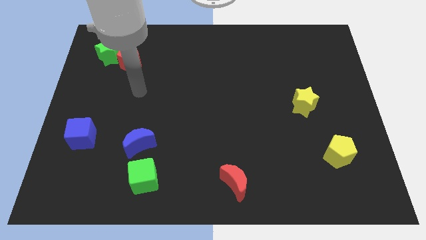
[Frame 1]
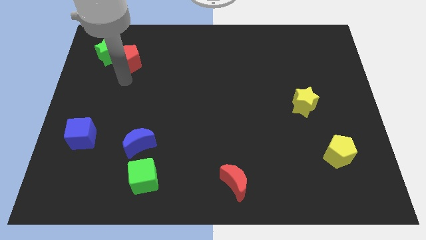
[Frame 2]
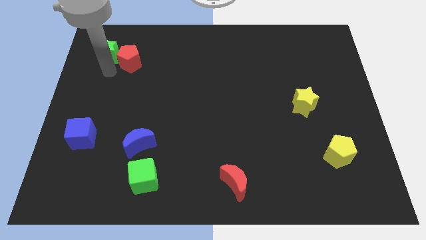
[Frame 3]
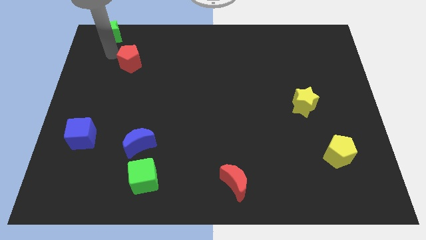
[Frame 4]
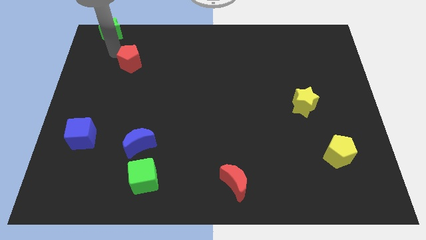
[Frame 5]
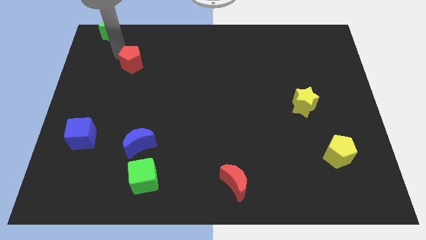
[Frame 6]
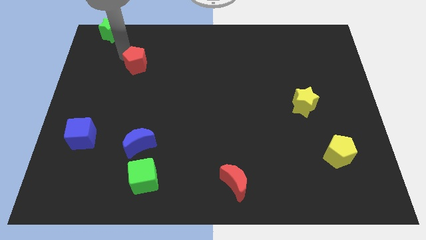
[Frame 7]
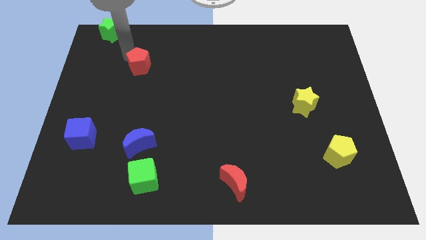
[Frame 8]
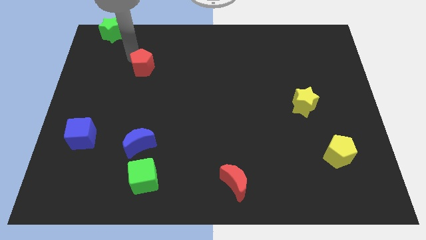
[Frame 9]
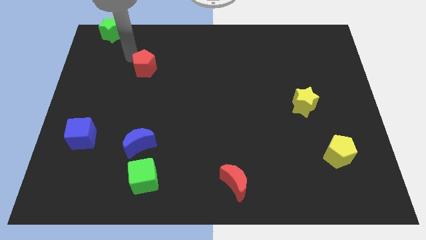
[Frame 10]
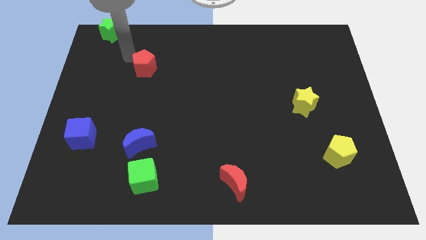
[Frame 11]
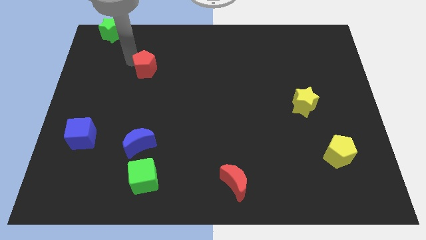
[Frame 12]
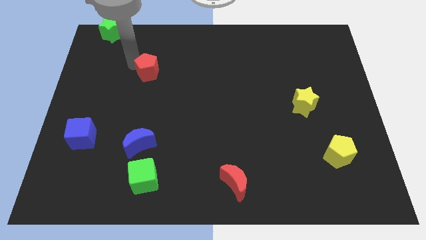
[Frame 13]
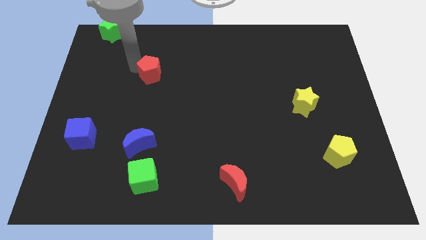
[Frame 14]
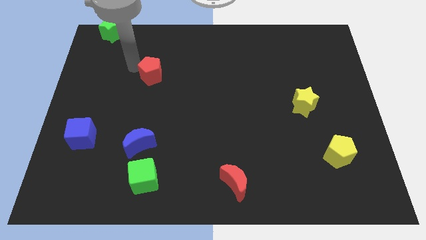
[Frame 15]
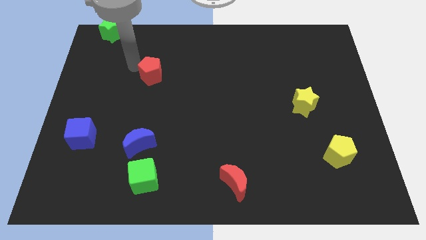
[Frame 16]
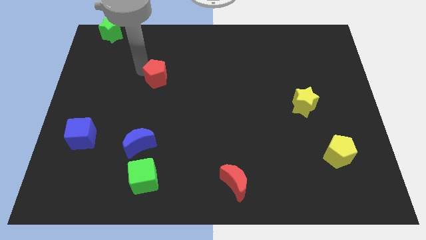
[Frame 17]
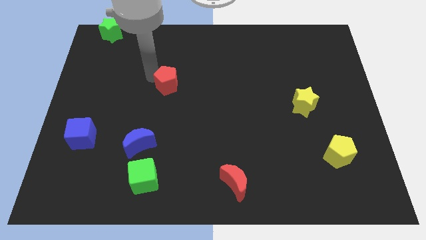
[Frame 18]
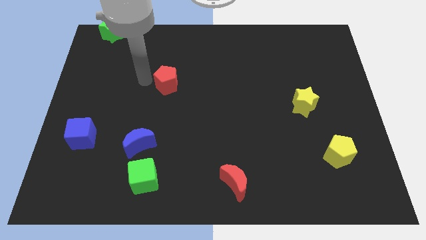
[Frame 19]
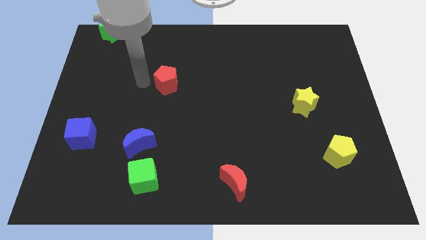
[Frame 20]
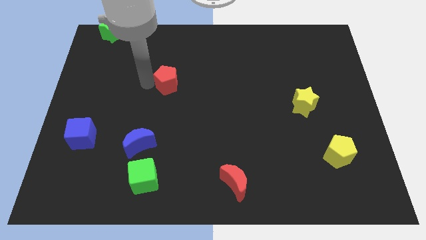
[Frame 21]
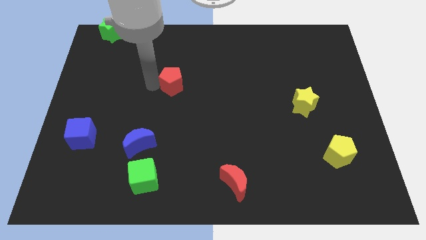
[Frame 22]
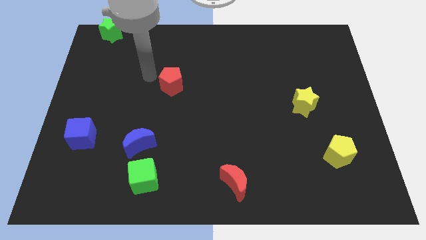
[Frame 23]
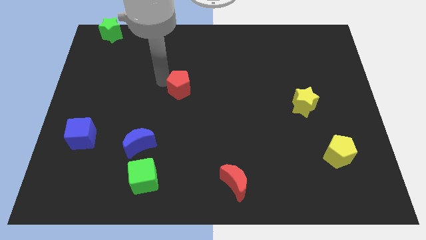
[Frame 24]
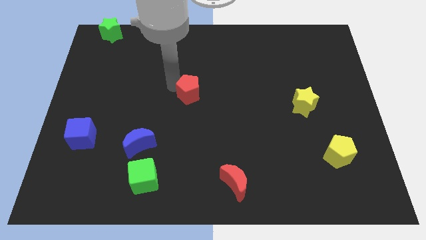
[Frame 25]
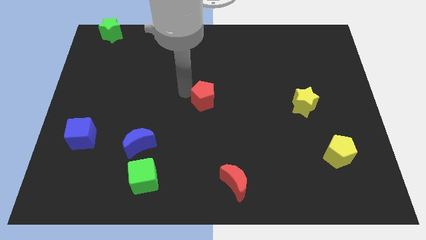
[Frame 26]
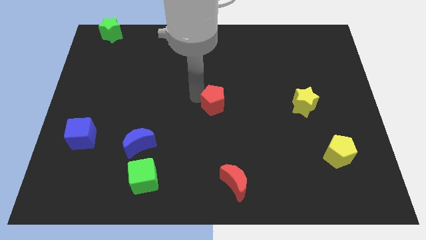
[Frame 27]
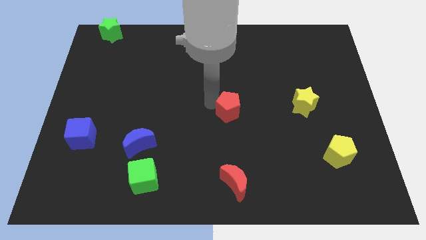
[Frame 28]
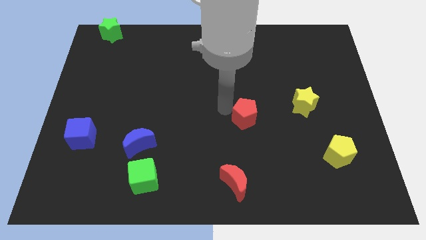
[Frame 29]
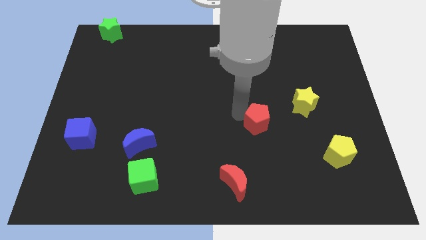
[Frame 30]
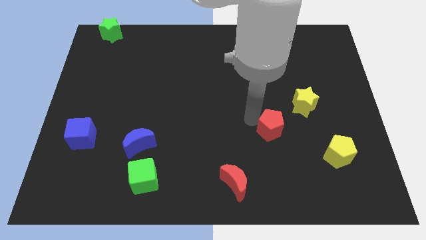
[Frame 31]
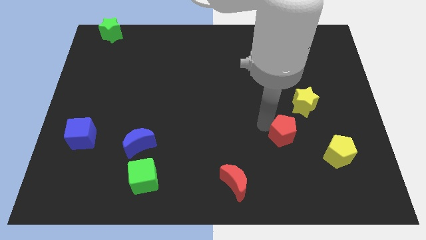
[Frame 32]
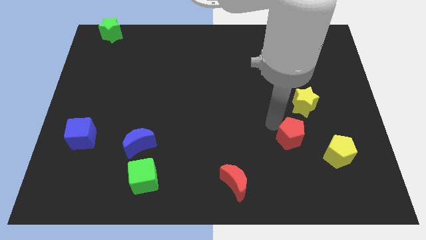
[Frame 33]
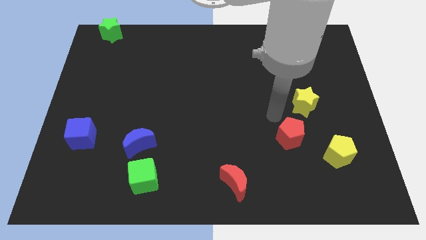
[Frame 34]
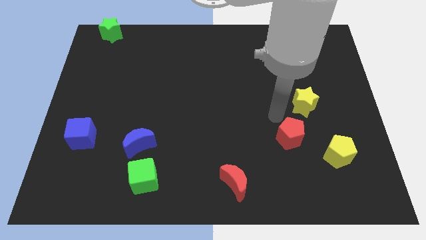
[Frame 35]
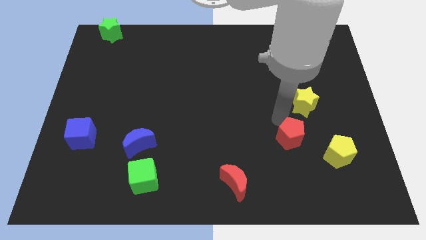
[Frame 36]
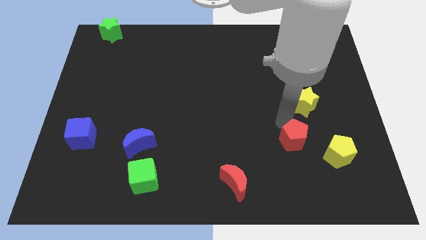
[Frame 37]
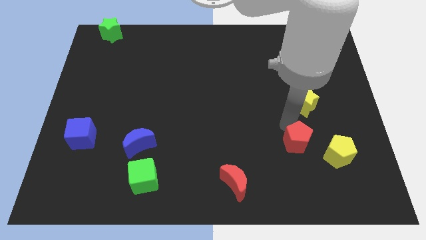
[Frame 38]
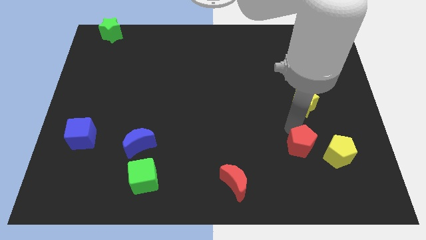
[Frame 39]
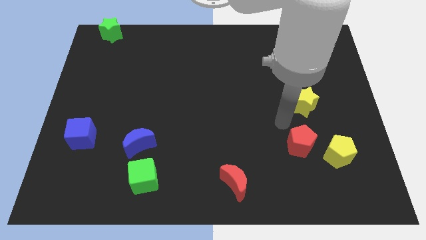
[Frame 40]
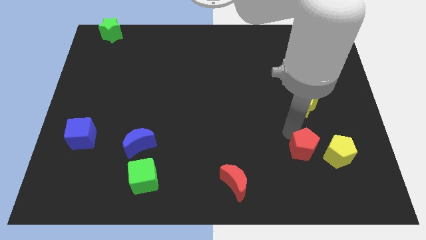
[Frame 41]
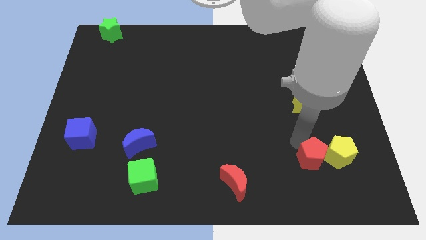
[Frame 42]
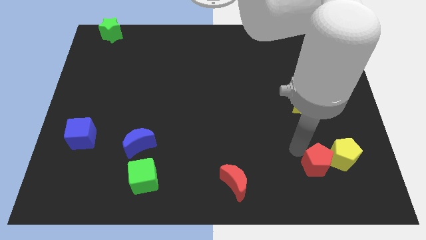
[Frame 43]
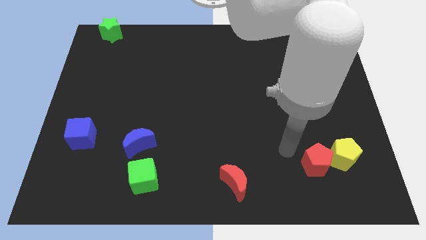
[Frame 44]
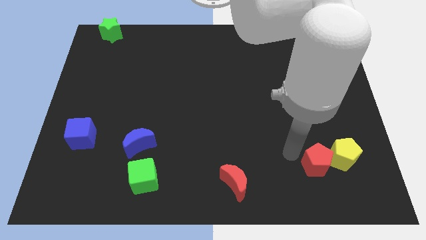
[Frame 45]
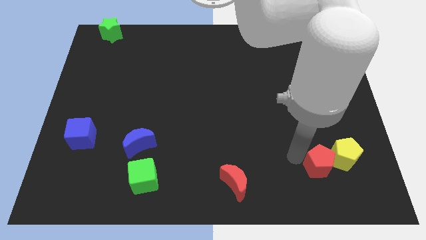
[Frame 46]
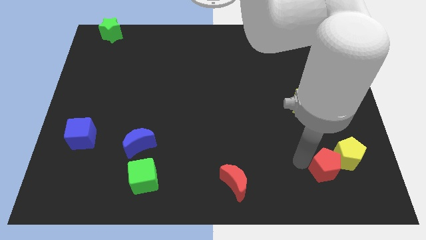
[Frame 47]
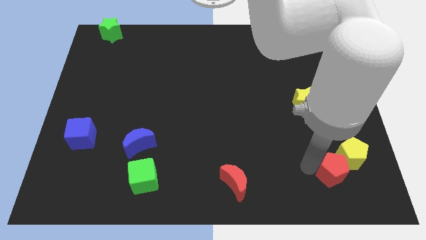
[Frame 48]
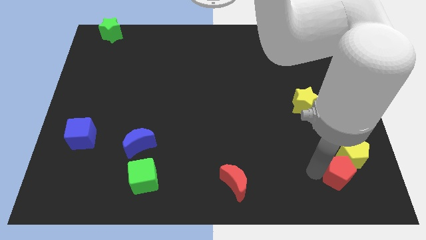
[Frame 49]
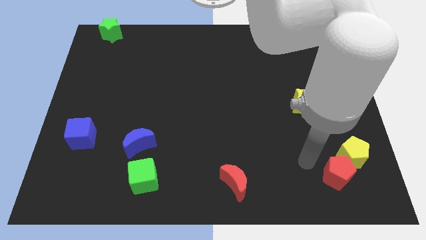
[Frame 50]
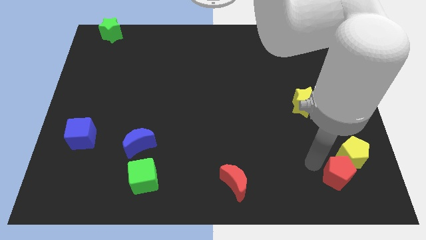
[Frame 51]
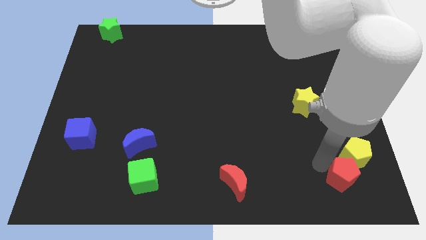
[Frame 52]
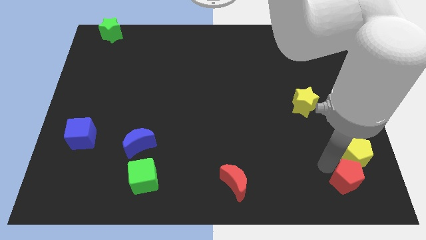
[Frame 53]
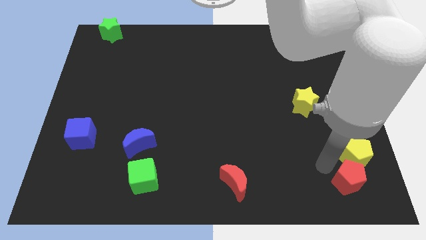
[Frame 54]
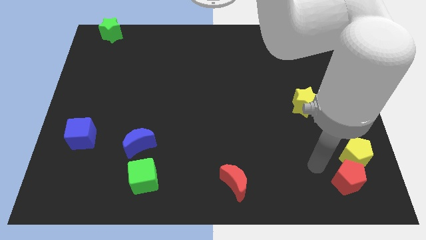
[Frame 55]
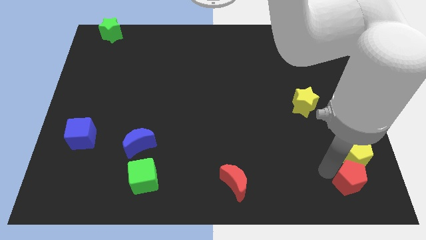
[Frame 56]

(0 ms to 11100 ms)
put the red pentagon to the bottom right corner
